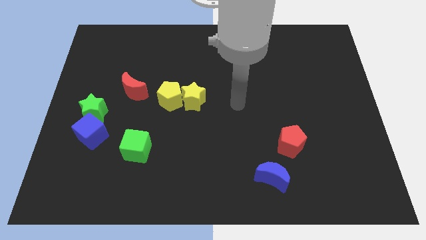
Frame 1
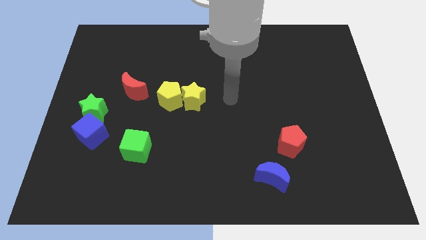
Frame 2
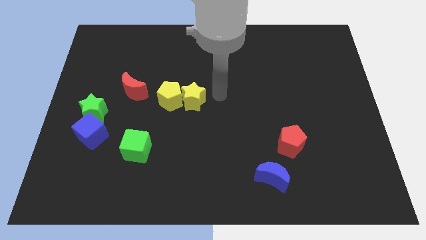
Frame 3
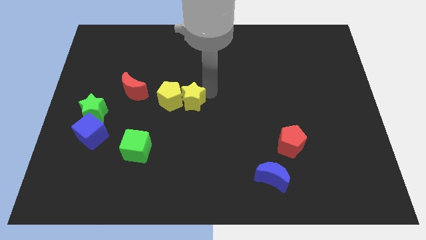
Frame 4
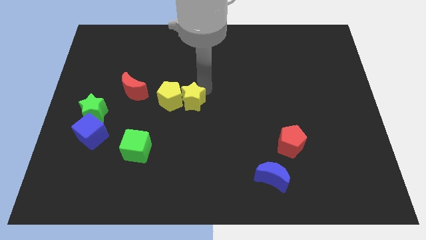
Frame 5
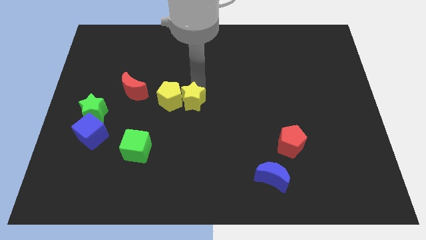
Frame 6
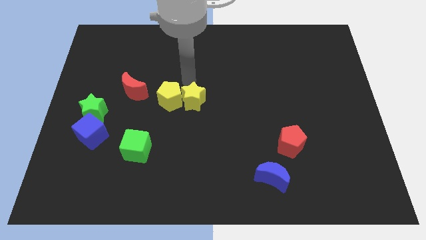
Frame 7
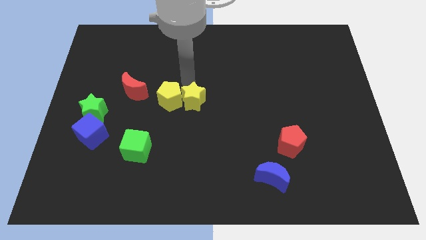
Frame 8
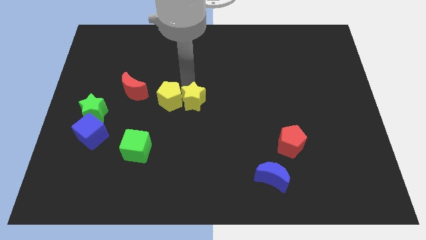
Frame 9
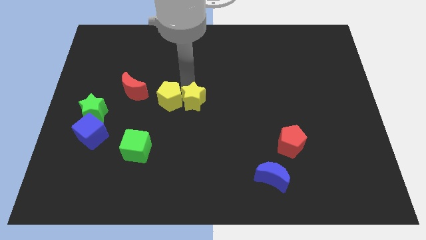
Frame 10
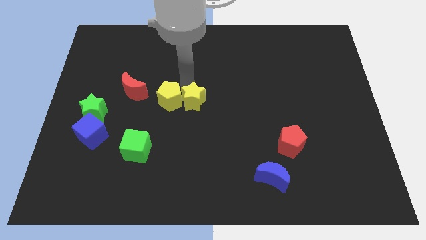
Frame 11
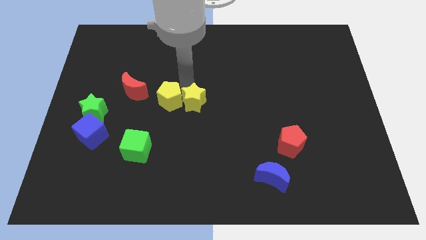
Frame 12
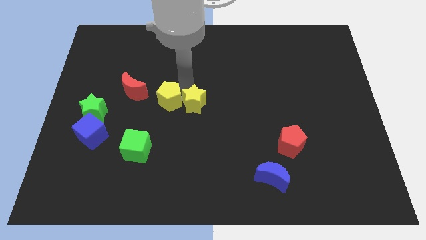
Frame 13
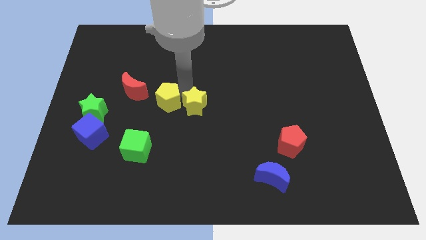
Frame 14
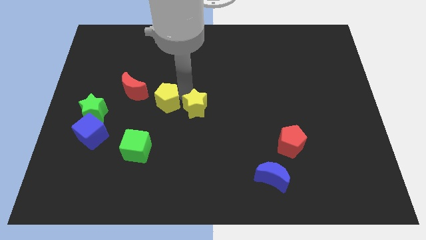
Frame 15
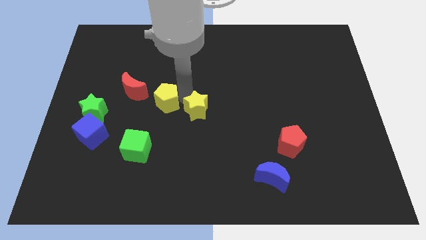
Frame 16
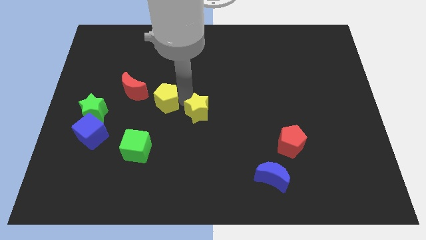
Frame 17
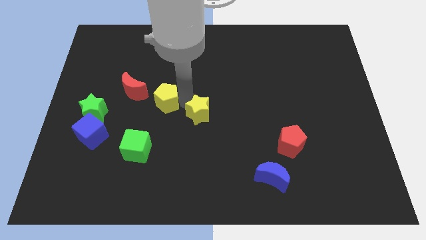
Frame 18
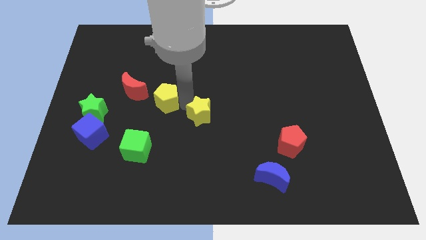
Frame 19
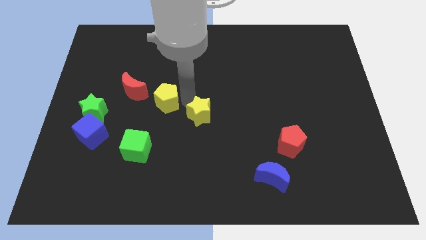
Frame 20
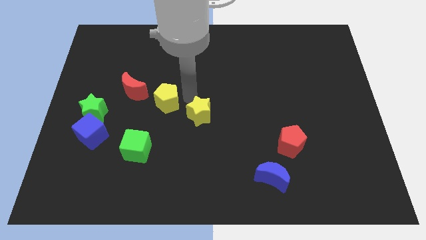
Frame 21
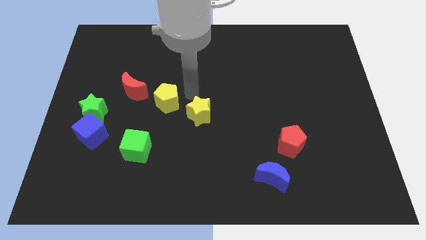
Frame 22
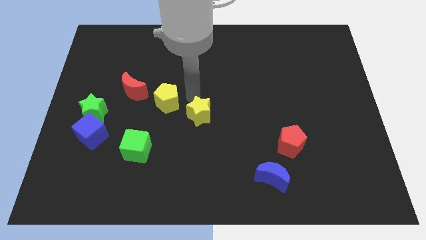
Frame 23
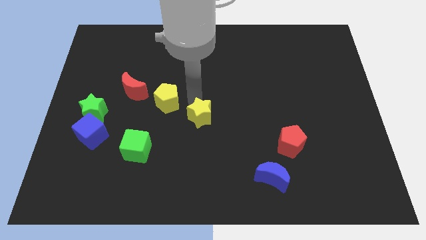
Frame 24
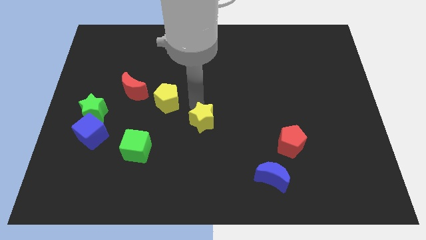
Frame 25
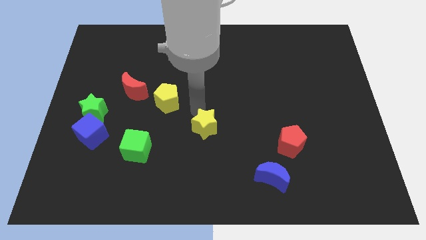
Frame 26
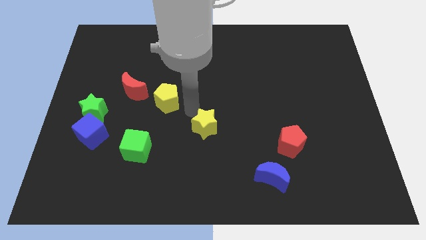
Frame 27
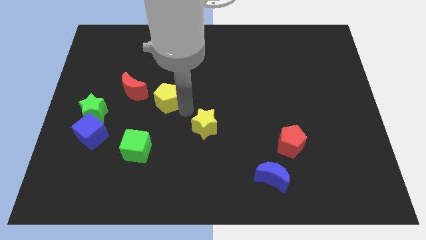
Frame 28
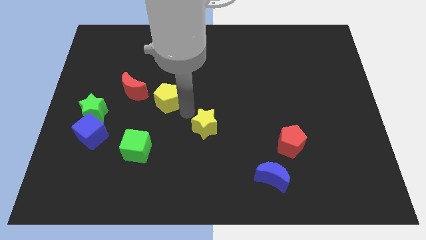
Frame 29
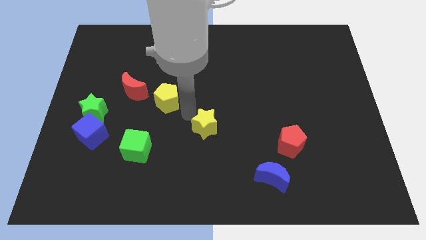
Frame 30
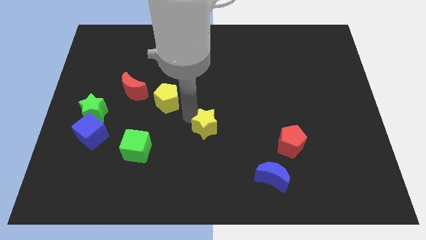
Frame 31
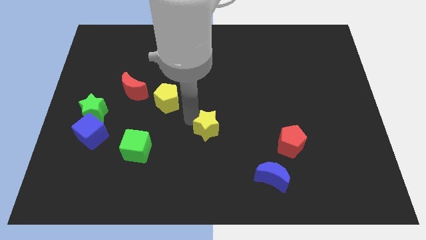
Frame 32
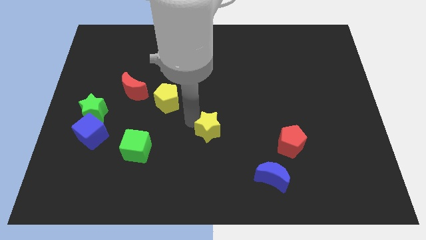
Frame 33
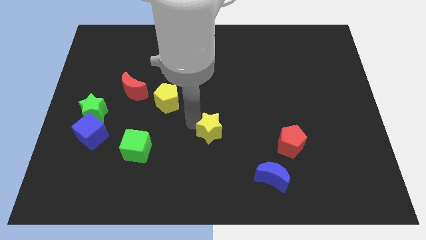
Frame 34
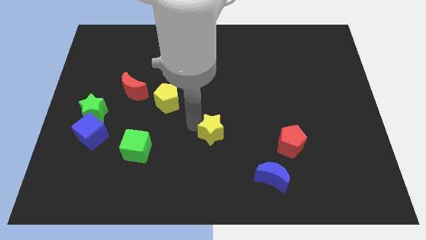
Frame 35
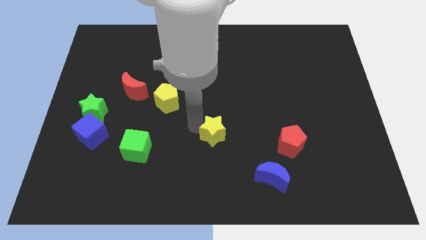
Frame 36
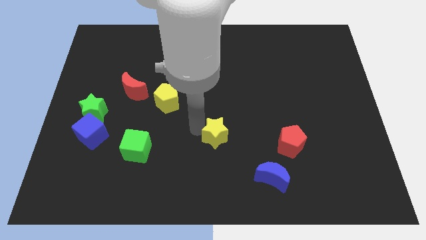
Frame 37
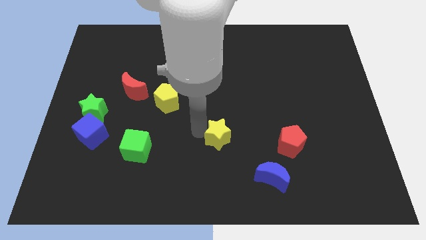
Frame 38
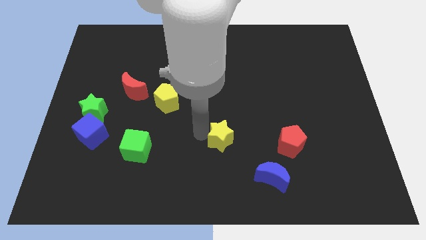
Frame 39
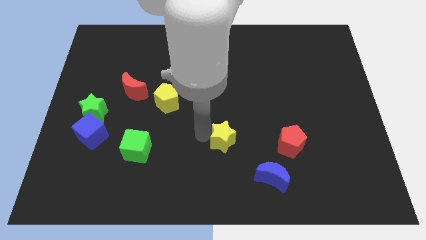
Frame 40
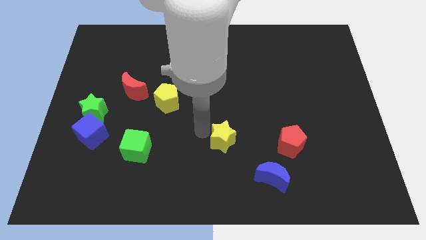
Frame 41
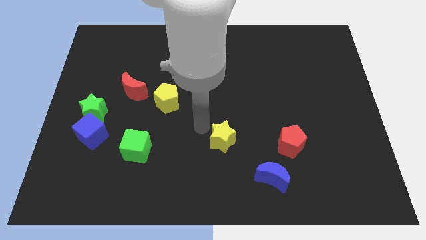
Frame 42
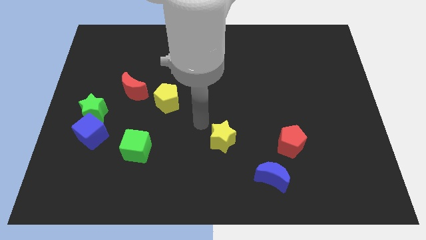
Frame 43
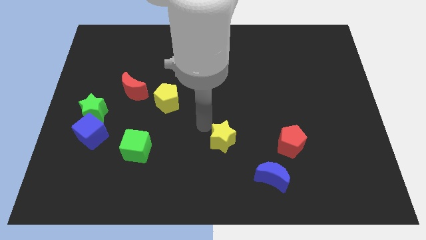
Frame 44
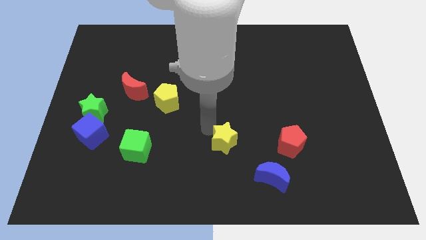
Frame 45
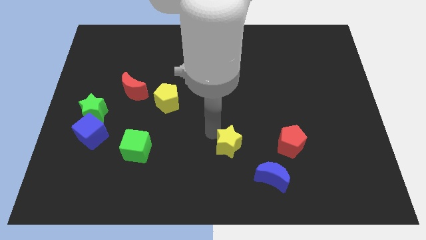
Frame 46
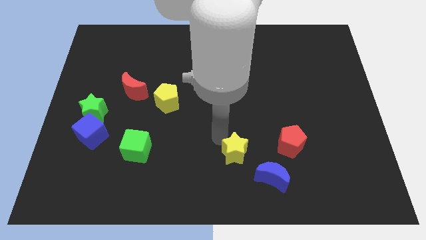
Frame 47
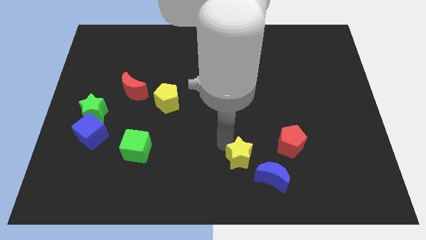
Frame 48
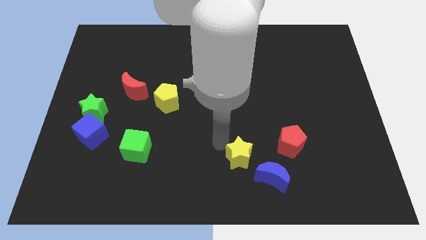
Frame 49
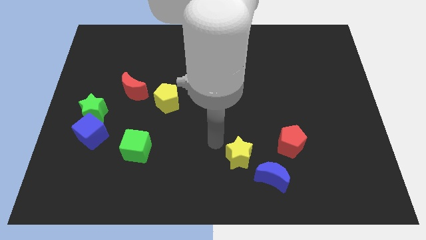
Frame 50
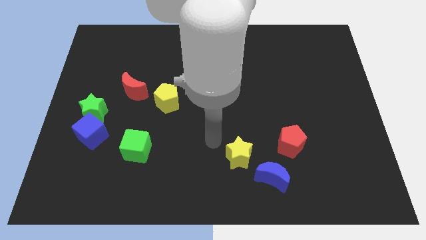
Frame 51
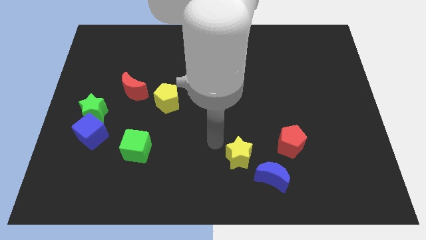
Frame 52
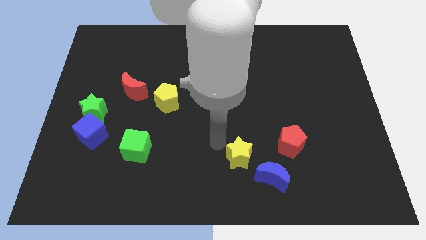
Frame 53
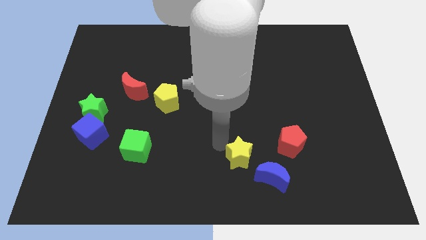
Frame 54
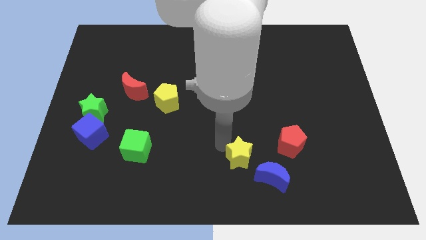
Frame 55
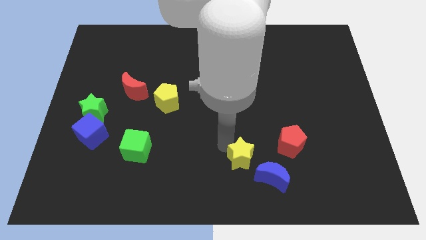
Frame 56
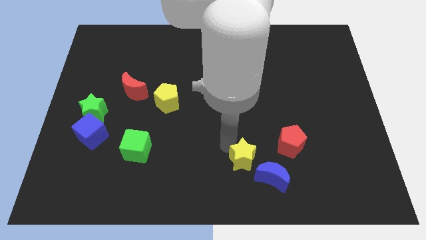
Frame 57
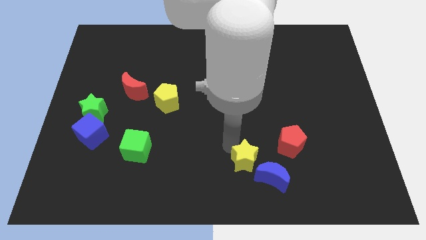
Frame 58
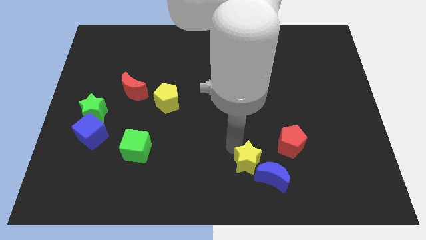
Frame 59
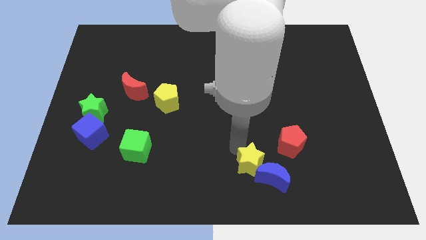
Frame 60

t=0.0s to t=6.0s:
slide the yellow star towards the blue moon

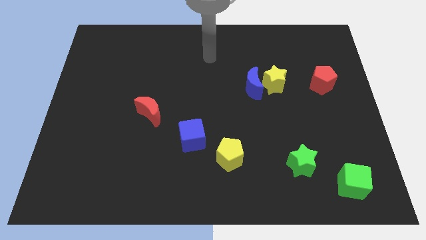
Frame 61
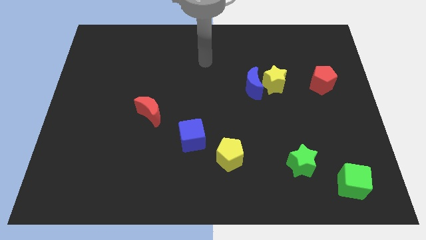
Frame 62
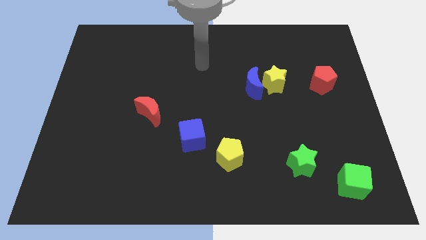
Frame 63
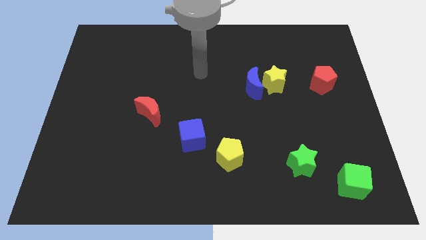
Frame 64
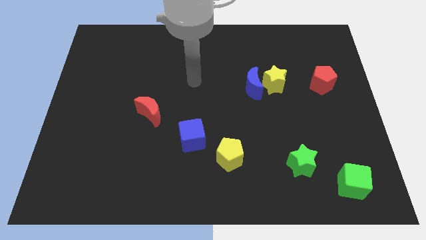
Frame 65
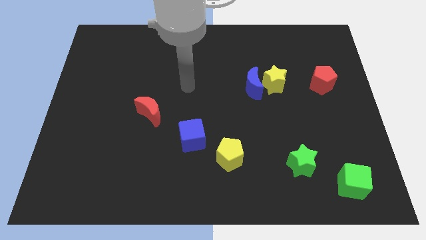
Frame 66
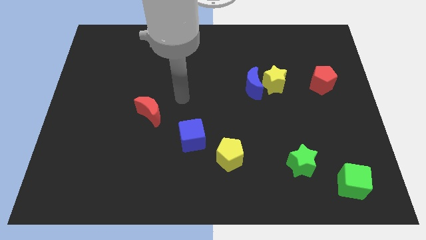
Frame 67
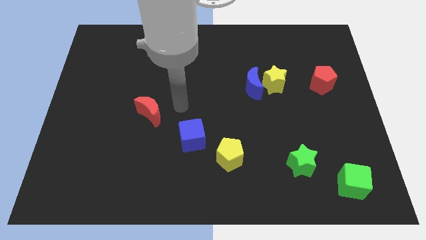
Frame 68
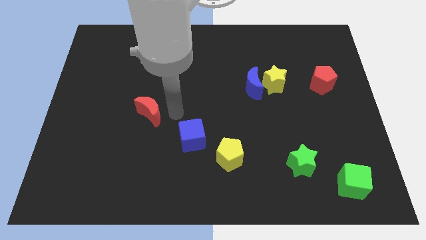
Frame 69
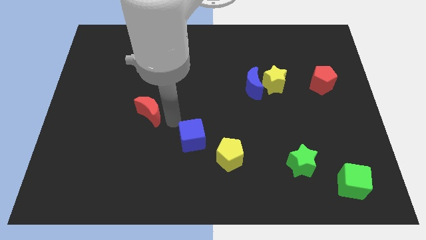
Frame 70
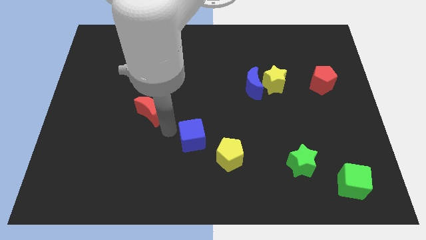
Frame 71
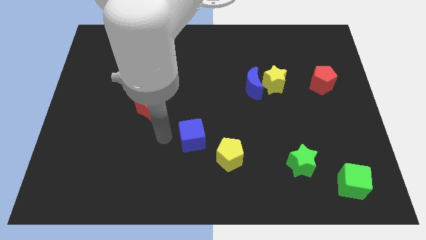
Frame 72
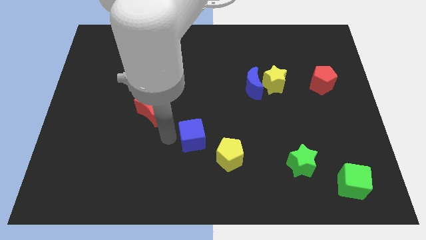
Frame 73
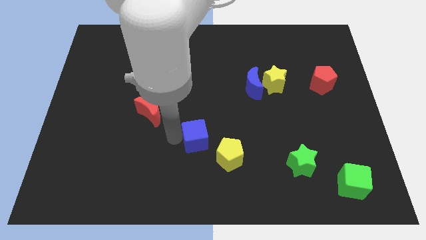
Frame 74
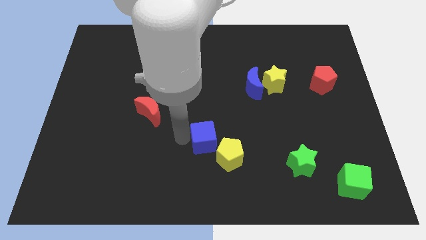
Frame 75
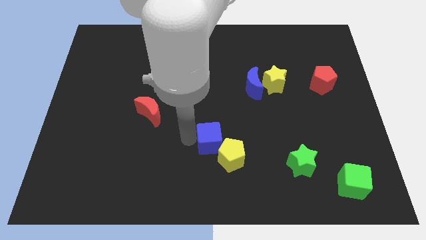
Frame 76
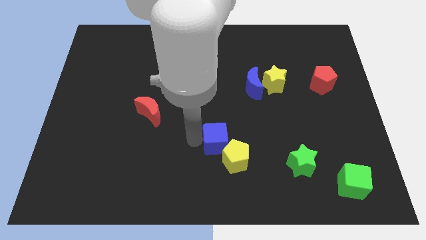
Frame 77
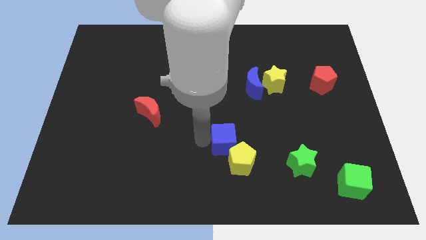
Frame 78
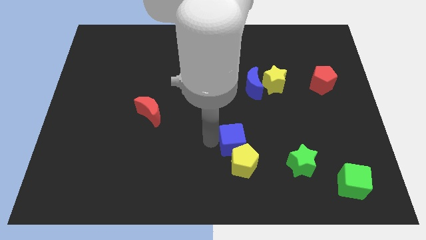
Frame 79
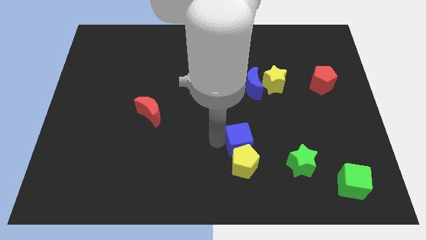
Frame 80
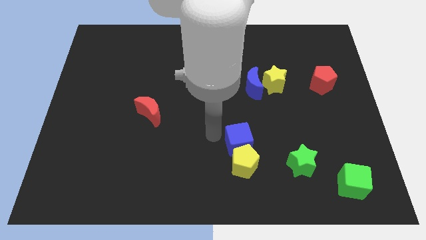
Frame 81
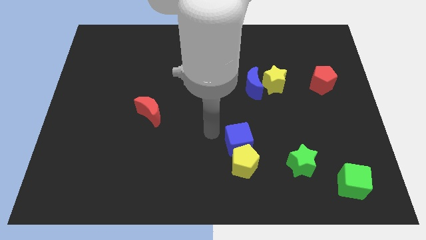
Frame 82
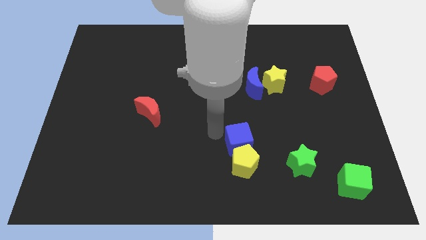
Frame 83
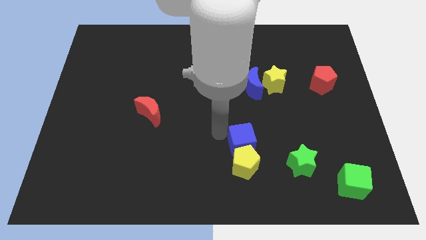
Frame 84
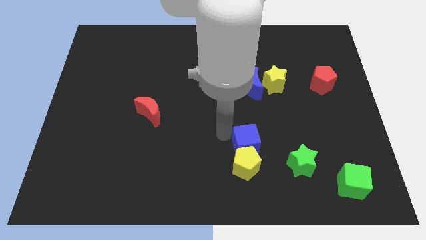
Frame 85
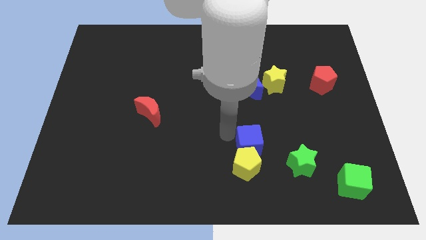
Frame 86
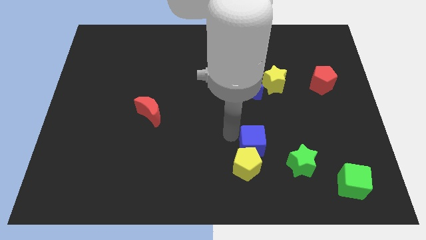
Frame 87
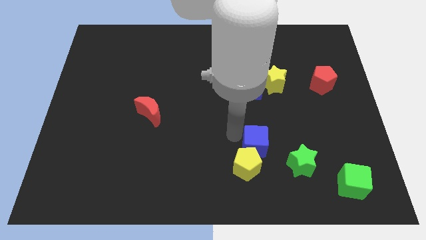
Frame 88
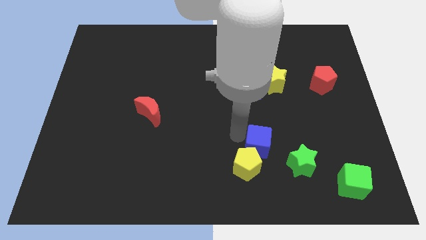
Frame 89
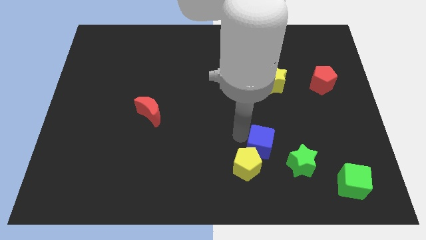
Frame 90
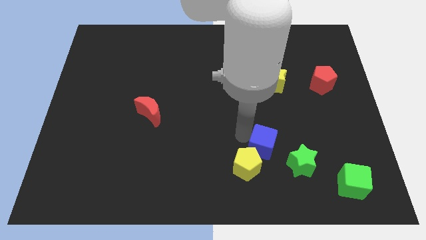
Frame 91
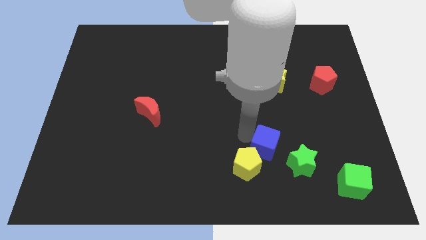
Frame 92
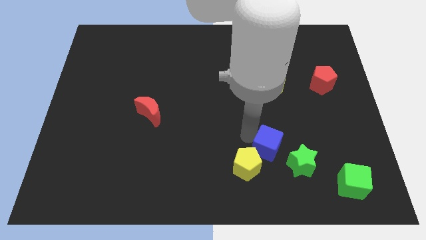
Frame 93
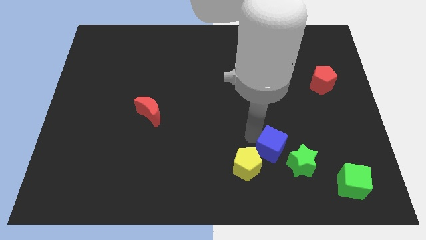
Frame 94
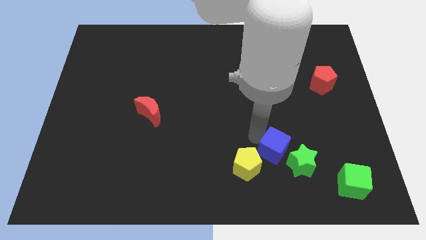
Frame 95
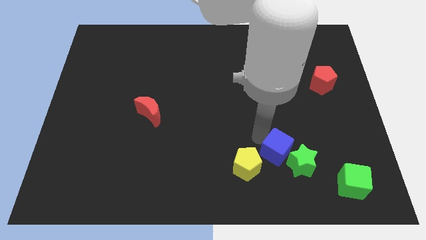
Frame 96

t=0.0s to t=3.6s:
slide the blue cube towards the green star
